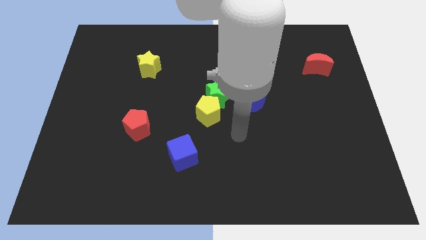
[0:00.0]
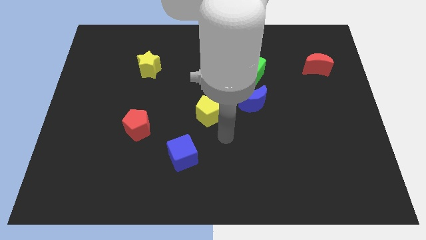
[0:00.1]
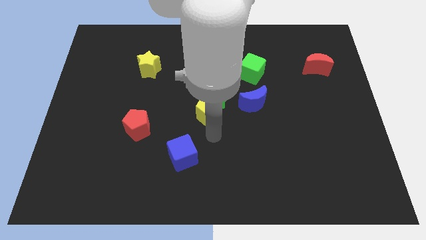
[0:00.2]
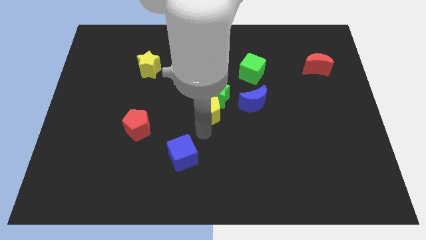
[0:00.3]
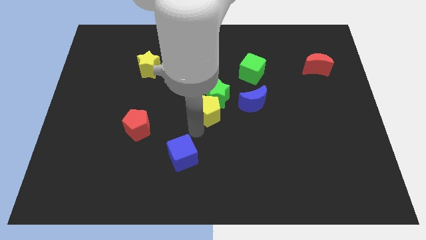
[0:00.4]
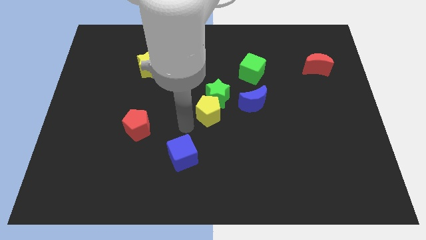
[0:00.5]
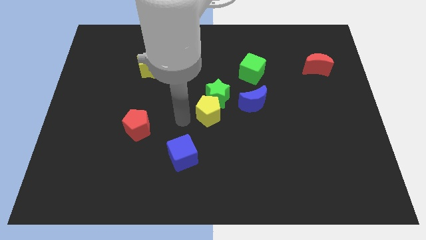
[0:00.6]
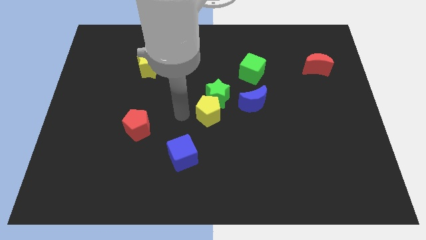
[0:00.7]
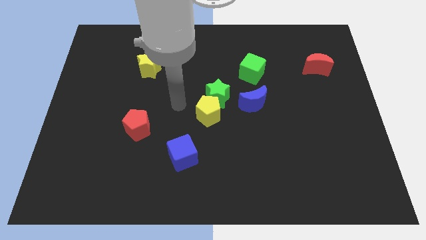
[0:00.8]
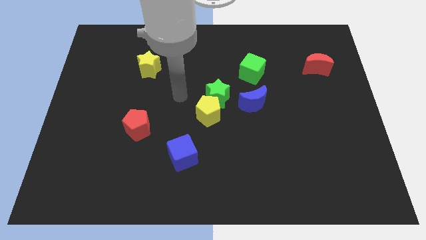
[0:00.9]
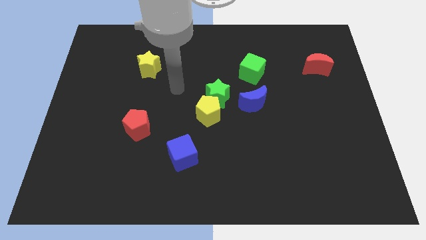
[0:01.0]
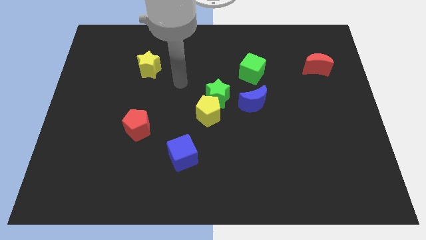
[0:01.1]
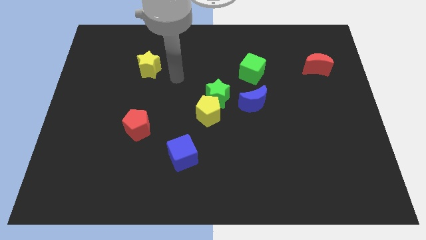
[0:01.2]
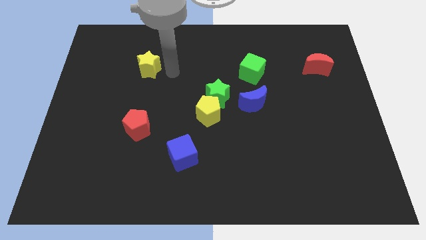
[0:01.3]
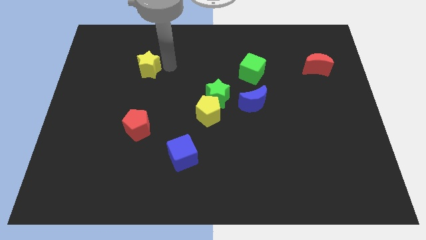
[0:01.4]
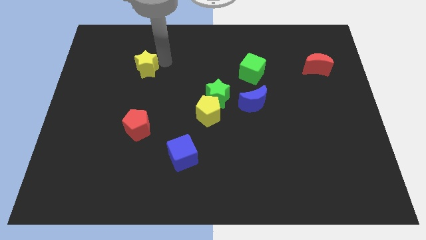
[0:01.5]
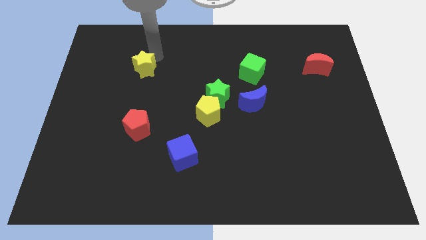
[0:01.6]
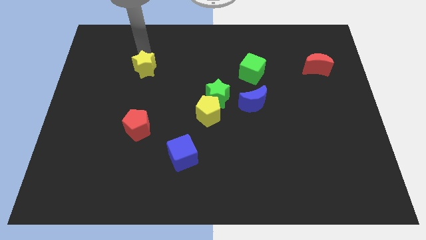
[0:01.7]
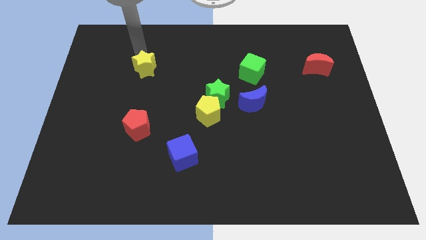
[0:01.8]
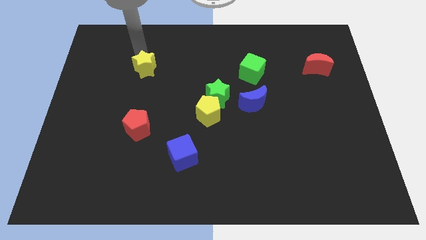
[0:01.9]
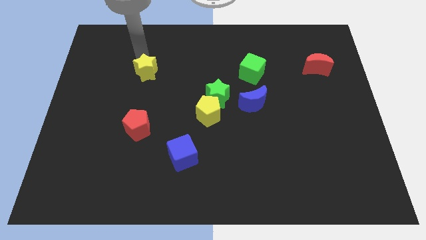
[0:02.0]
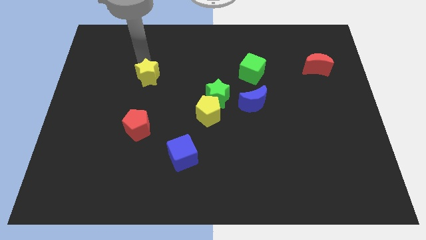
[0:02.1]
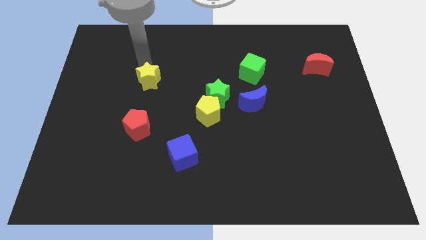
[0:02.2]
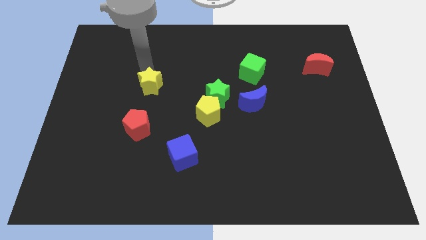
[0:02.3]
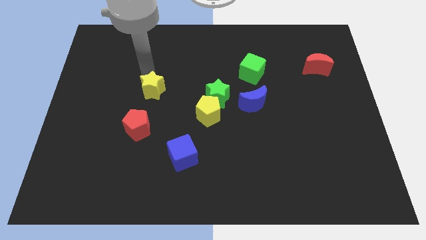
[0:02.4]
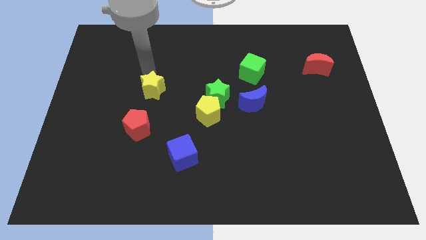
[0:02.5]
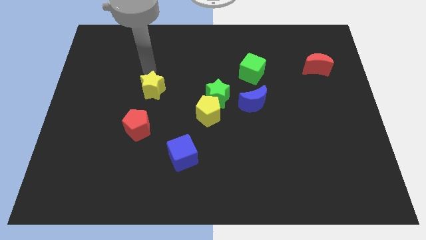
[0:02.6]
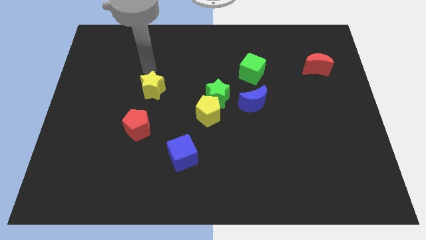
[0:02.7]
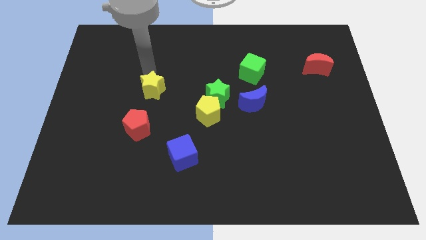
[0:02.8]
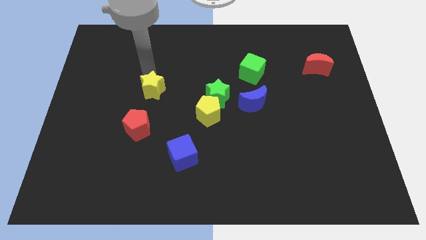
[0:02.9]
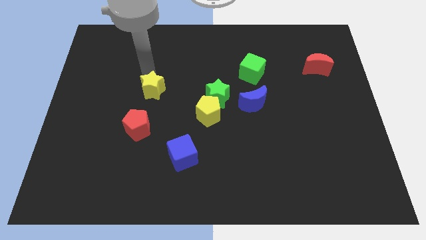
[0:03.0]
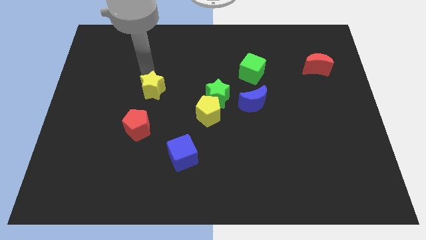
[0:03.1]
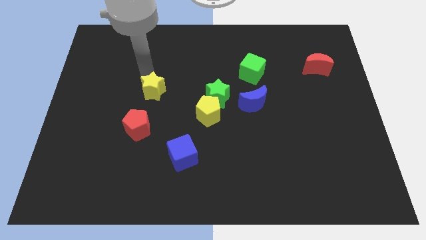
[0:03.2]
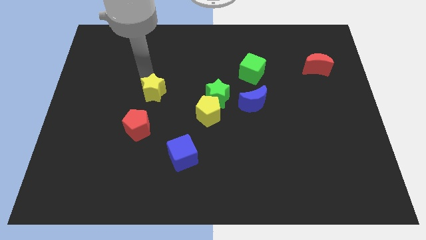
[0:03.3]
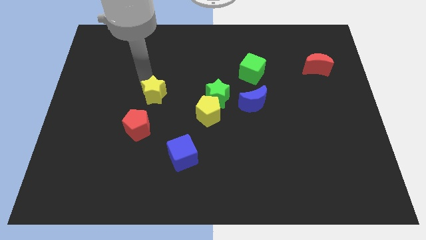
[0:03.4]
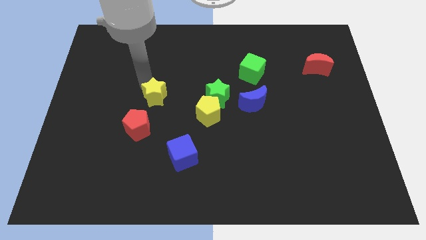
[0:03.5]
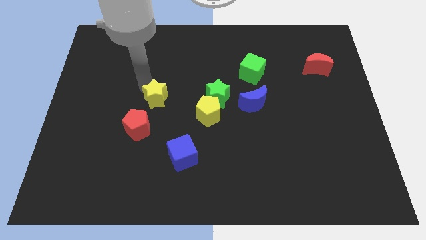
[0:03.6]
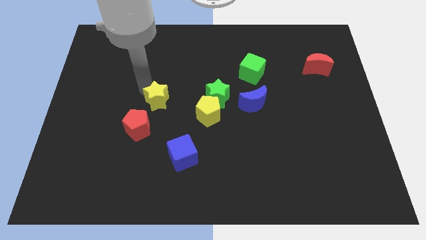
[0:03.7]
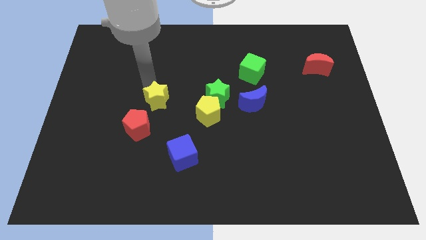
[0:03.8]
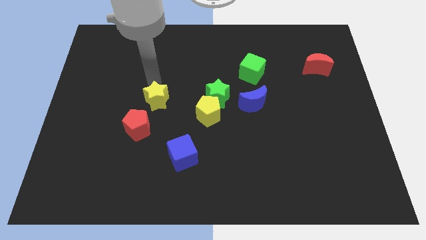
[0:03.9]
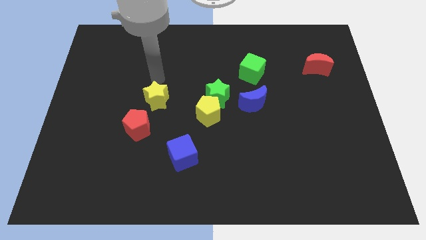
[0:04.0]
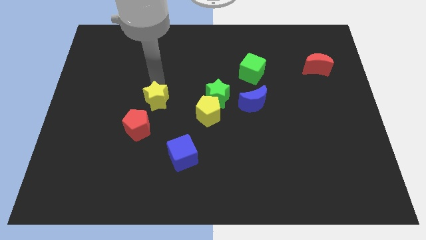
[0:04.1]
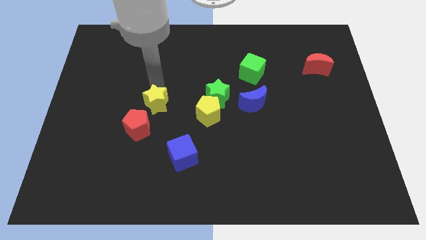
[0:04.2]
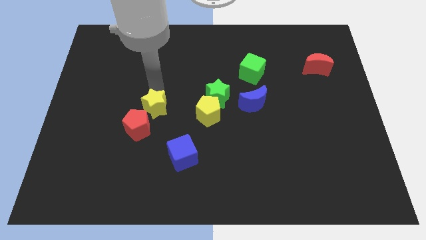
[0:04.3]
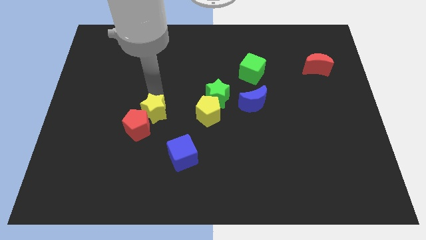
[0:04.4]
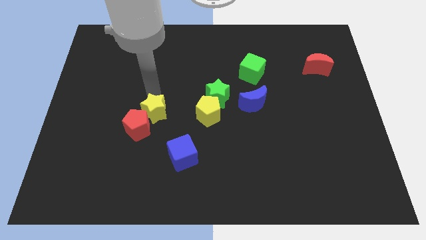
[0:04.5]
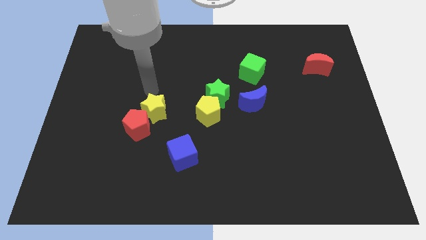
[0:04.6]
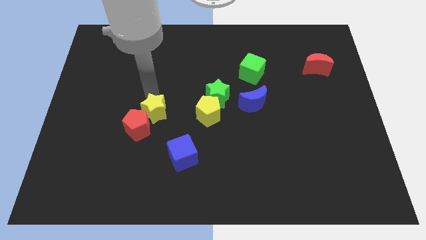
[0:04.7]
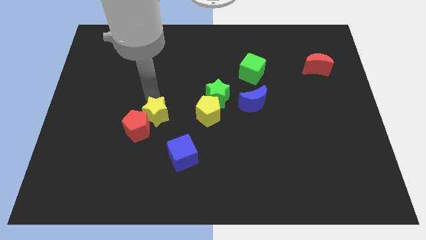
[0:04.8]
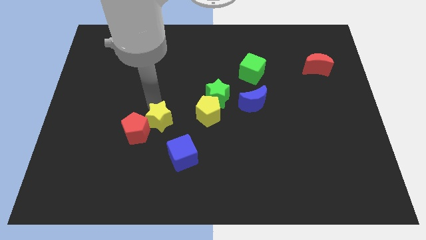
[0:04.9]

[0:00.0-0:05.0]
move the yellow star to the top left of the blue cube

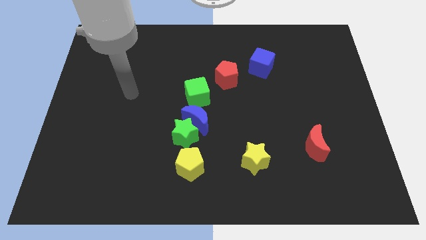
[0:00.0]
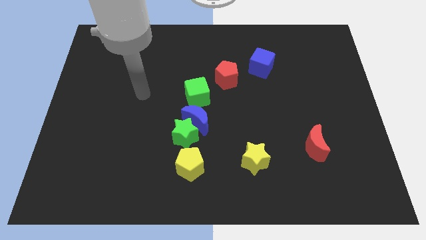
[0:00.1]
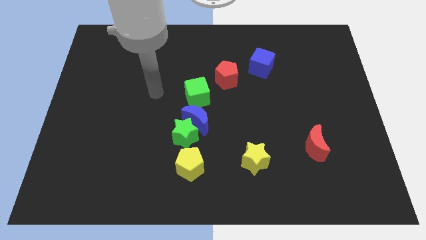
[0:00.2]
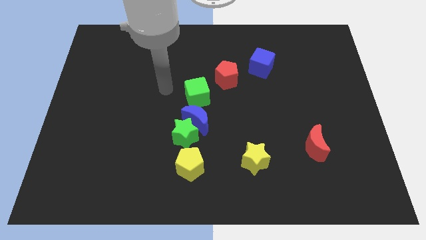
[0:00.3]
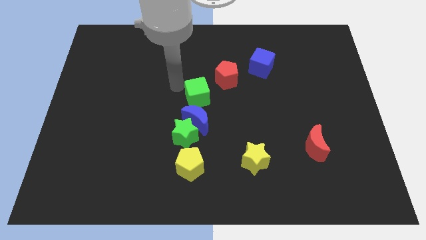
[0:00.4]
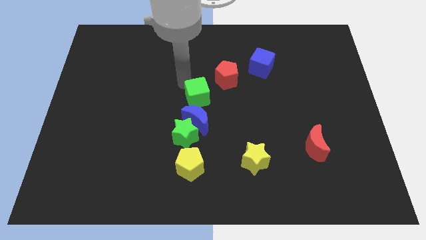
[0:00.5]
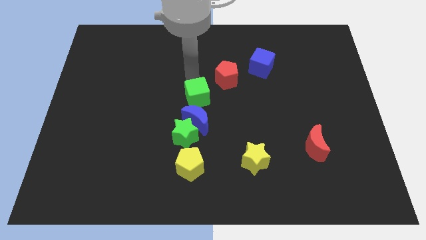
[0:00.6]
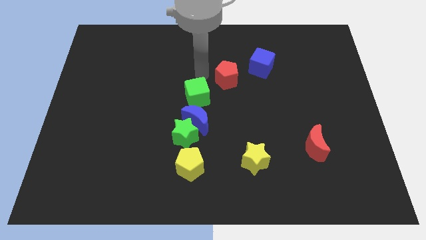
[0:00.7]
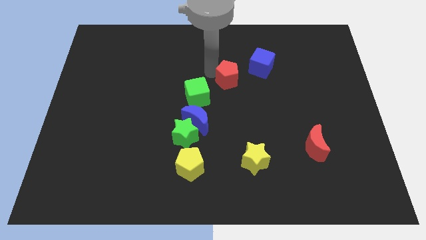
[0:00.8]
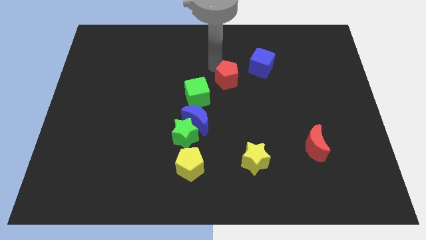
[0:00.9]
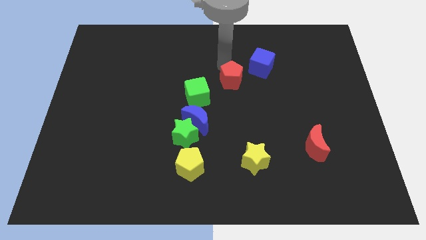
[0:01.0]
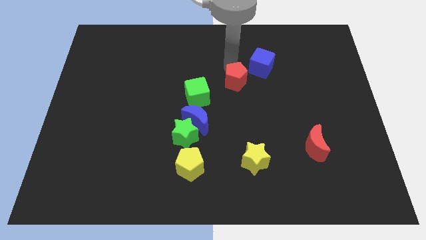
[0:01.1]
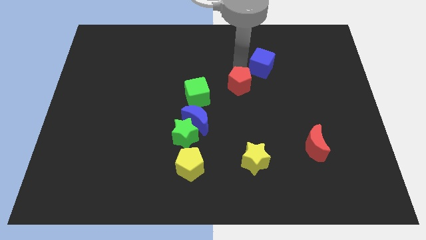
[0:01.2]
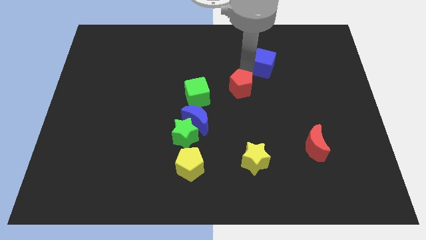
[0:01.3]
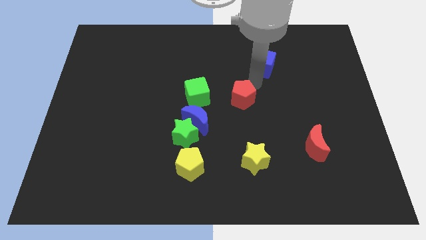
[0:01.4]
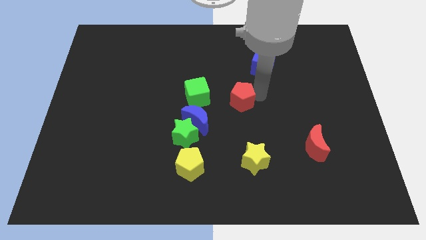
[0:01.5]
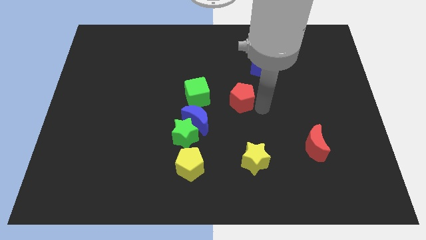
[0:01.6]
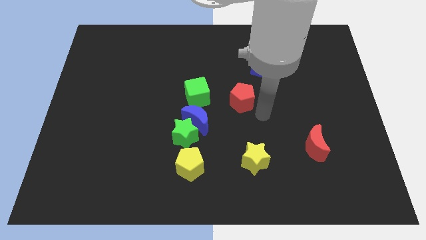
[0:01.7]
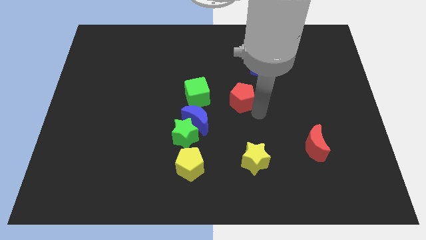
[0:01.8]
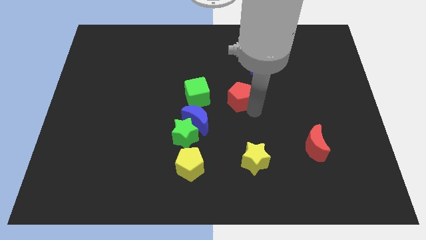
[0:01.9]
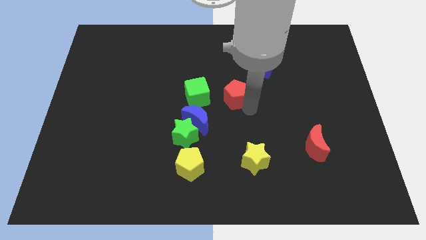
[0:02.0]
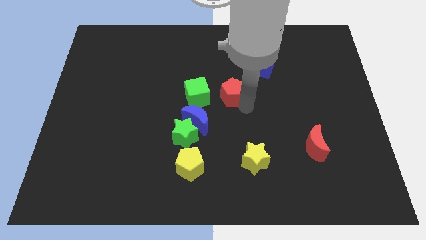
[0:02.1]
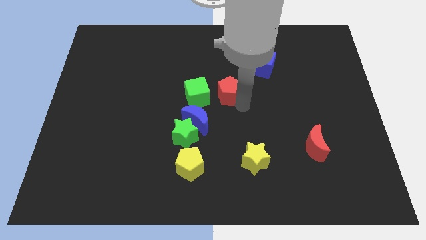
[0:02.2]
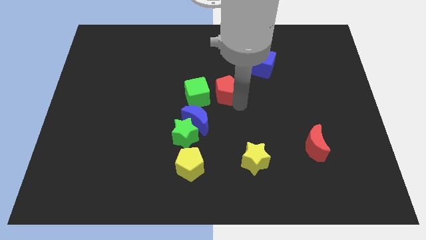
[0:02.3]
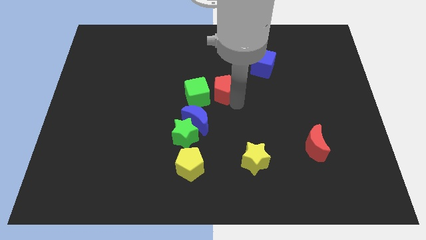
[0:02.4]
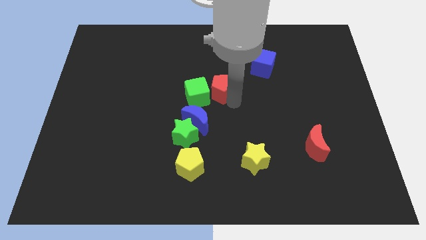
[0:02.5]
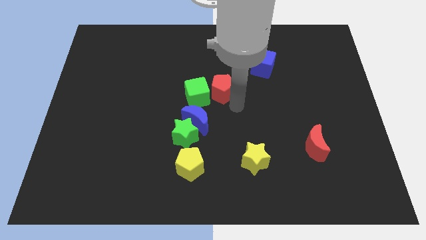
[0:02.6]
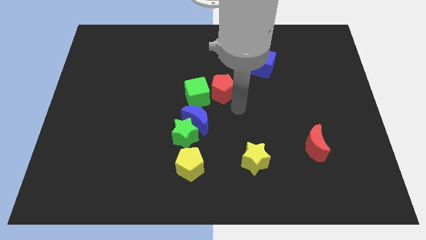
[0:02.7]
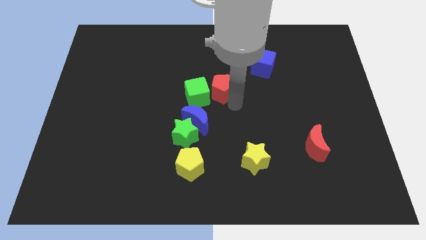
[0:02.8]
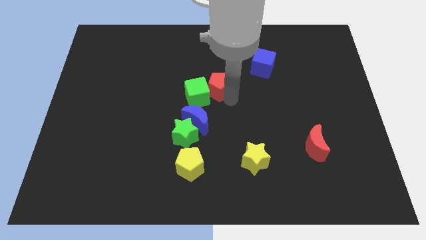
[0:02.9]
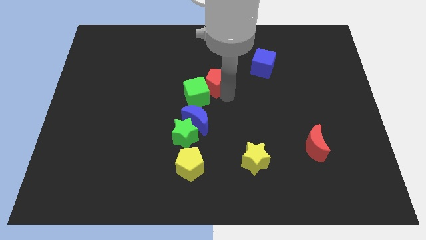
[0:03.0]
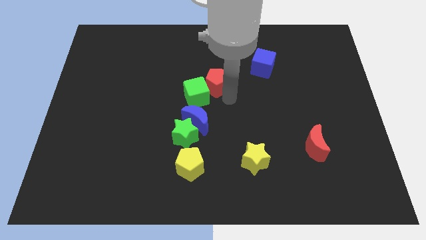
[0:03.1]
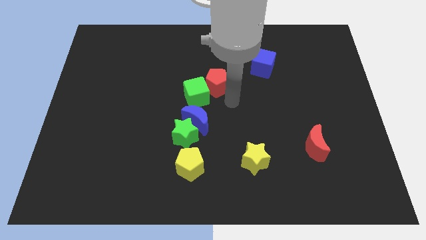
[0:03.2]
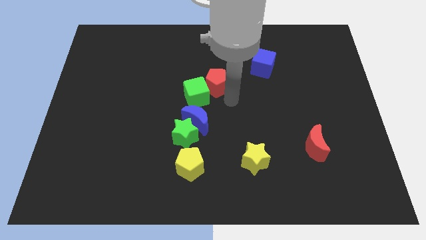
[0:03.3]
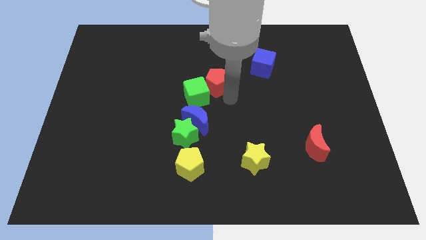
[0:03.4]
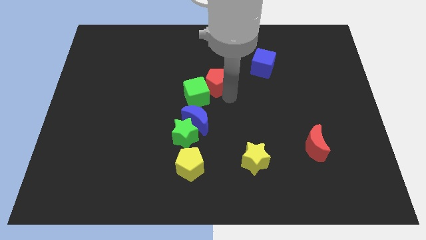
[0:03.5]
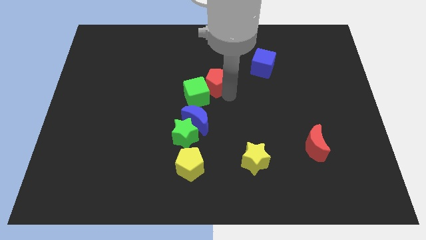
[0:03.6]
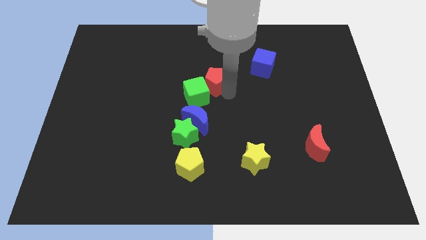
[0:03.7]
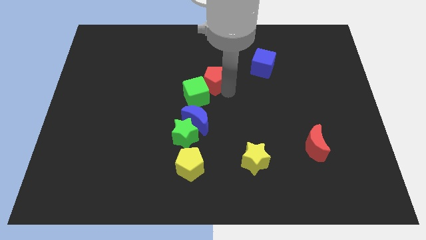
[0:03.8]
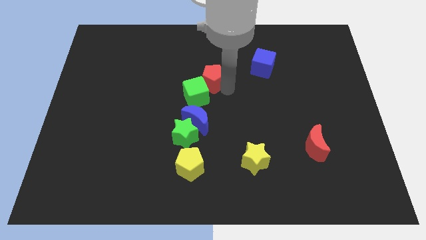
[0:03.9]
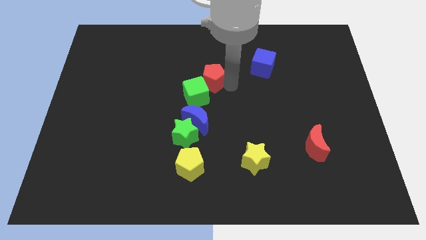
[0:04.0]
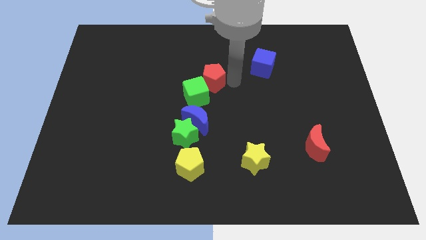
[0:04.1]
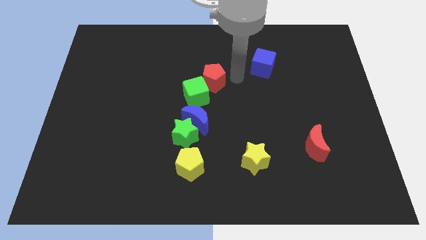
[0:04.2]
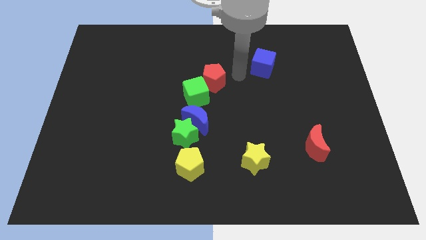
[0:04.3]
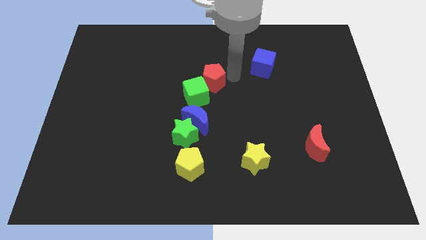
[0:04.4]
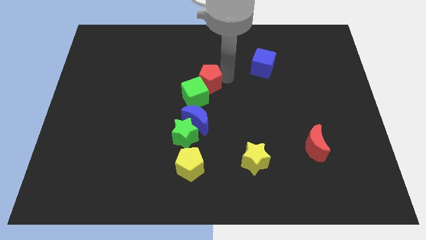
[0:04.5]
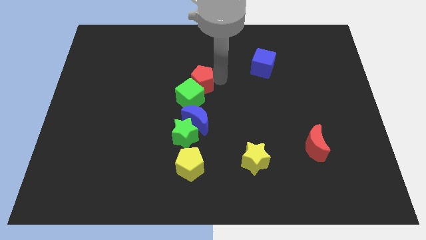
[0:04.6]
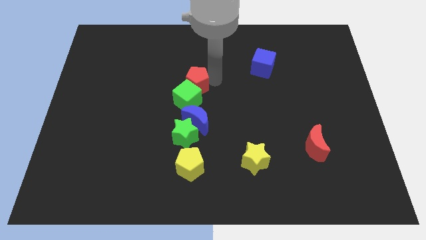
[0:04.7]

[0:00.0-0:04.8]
move the red pentagon above the green star
